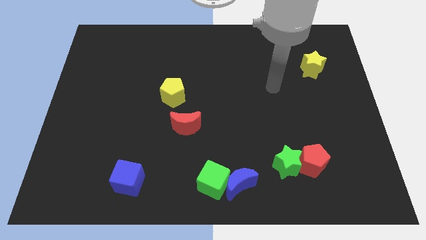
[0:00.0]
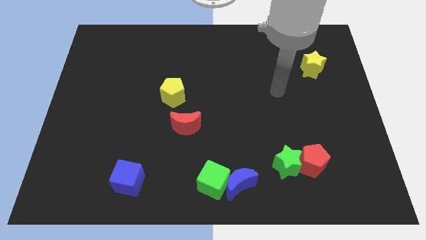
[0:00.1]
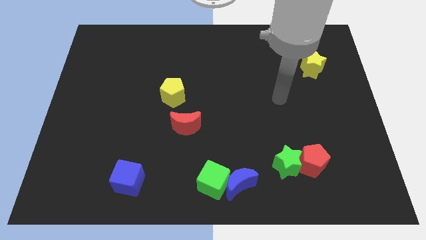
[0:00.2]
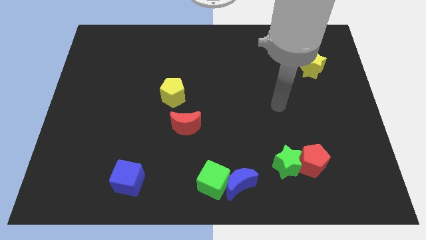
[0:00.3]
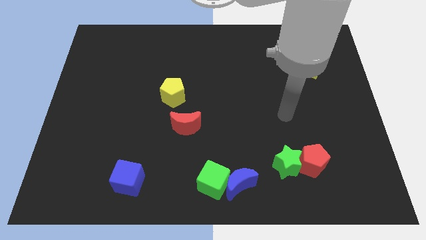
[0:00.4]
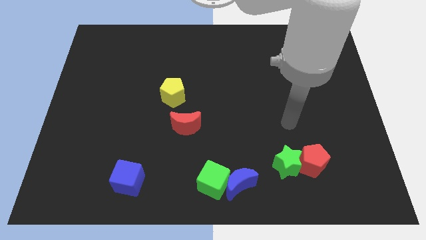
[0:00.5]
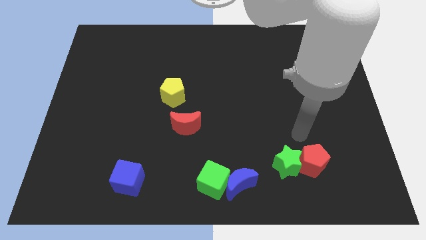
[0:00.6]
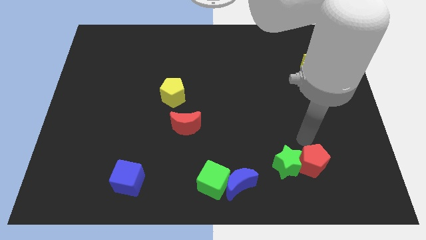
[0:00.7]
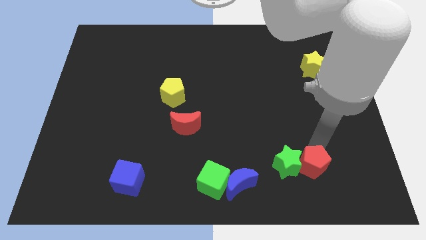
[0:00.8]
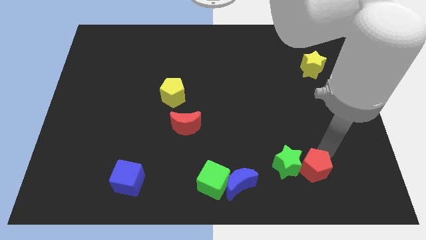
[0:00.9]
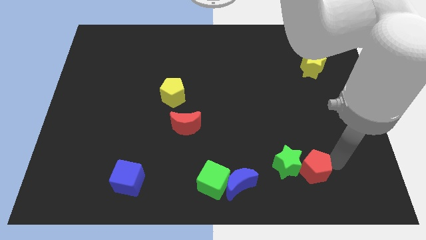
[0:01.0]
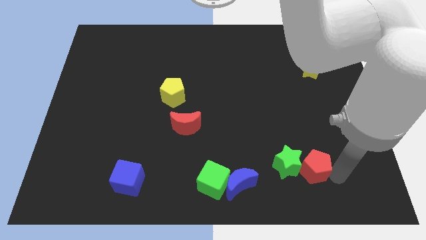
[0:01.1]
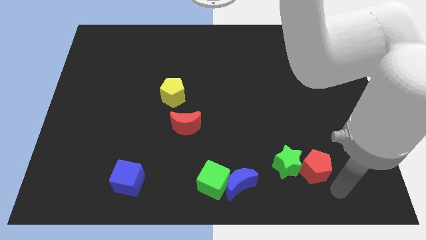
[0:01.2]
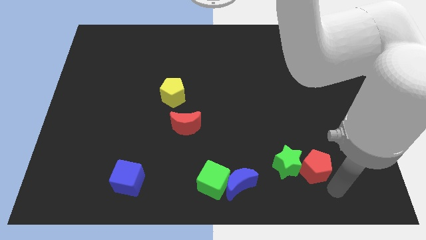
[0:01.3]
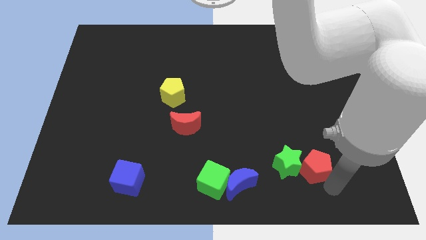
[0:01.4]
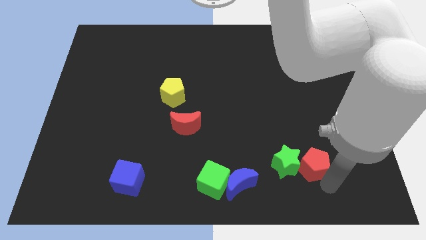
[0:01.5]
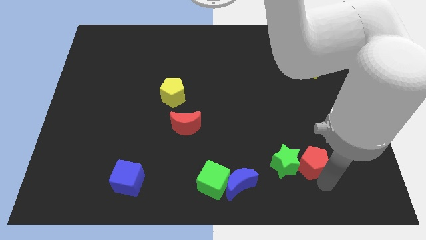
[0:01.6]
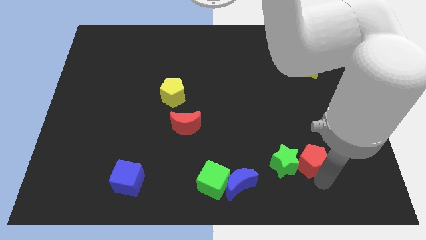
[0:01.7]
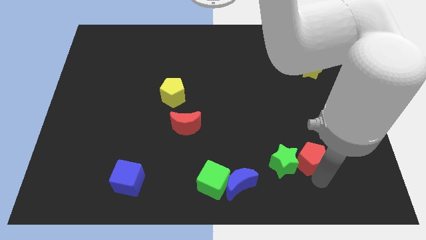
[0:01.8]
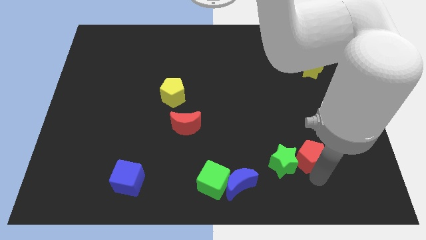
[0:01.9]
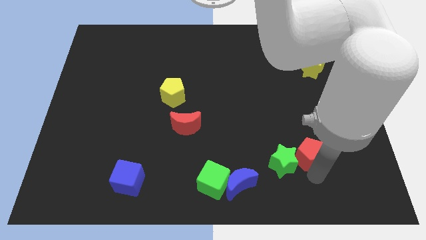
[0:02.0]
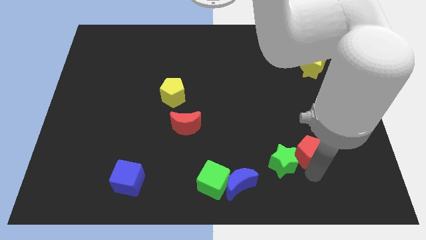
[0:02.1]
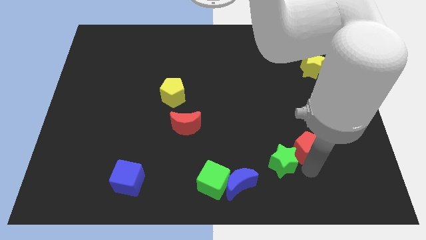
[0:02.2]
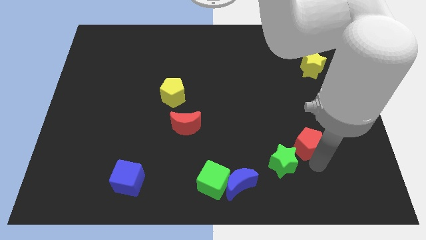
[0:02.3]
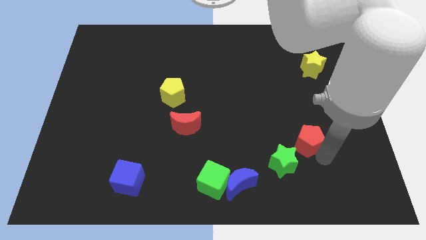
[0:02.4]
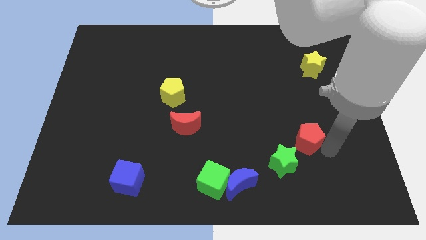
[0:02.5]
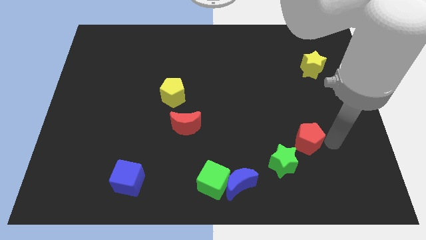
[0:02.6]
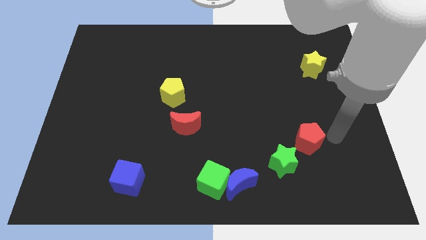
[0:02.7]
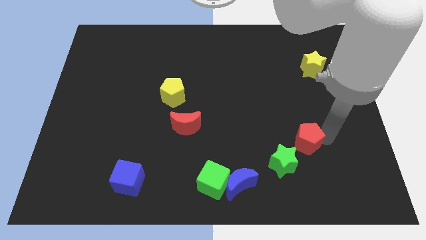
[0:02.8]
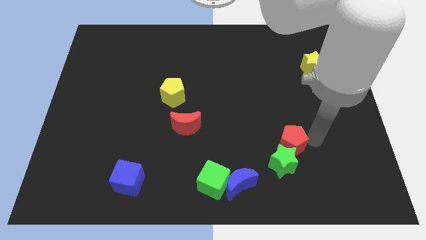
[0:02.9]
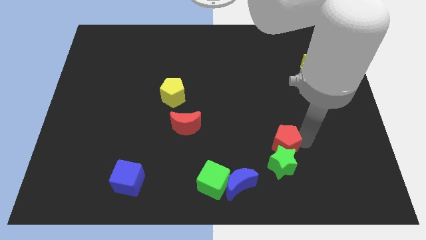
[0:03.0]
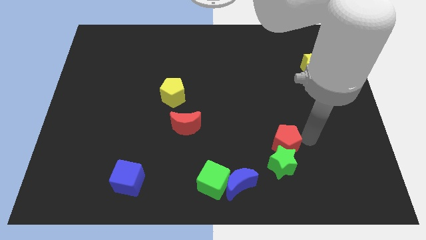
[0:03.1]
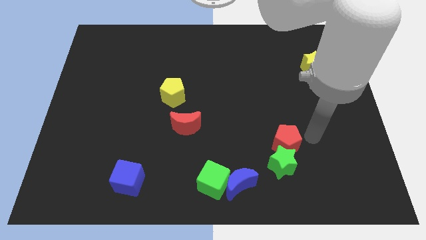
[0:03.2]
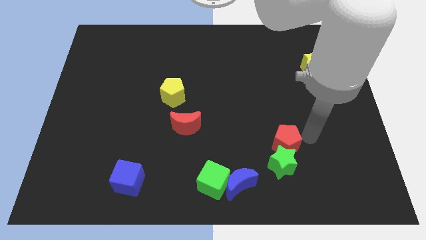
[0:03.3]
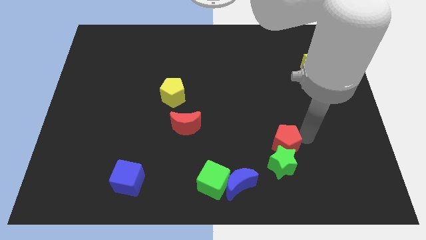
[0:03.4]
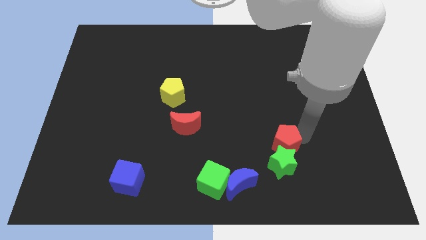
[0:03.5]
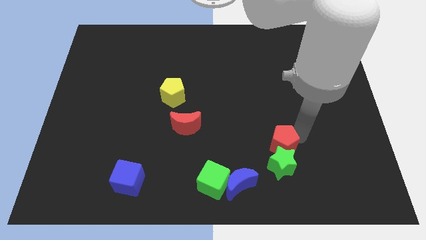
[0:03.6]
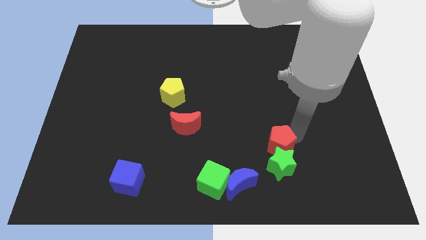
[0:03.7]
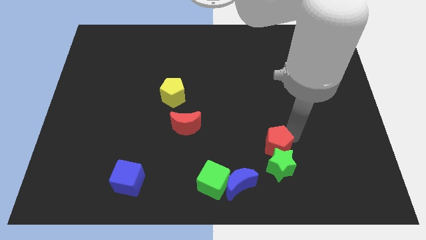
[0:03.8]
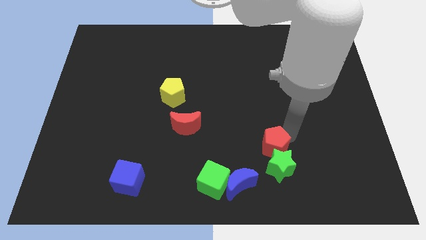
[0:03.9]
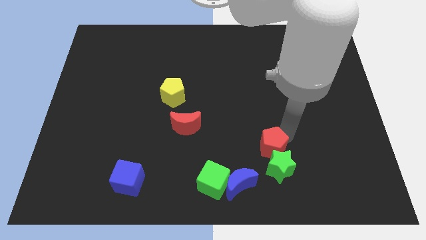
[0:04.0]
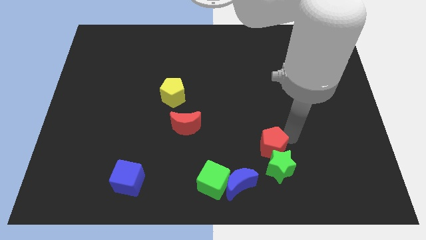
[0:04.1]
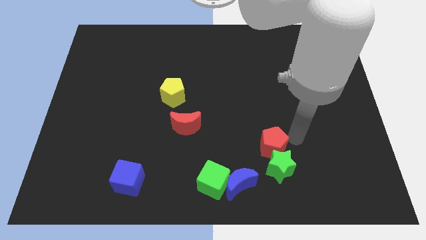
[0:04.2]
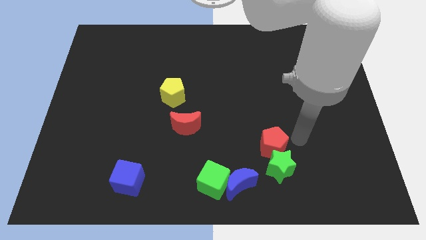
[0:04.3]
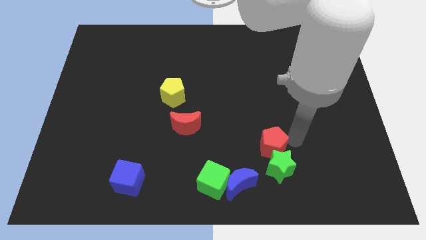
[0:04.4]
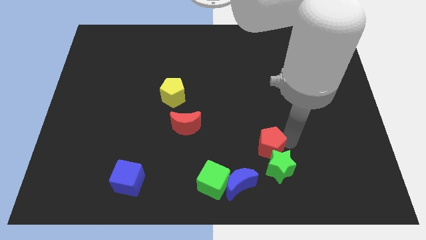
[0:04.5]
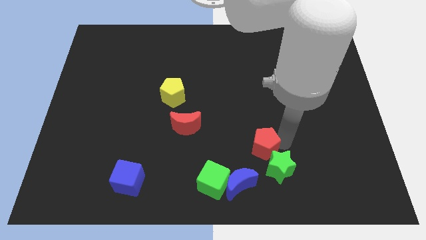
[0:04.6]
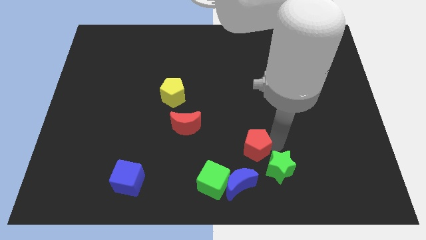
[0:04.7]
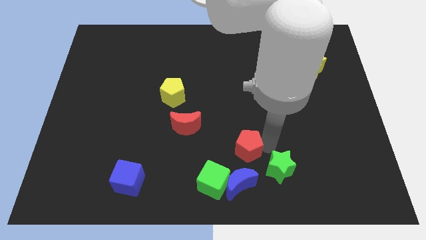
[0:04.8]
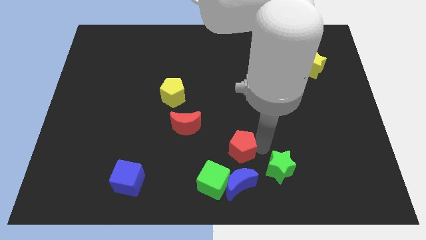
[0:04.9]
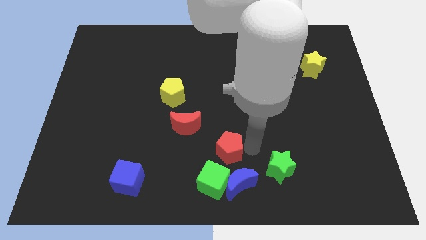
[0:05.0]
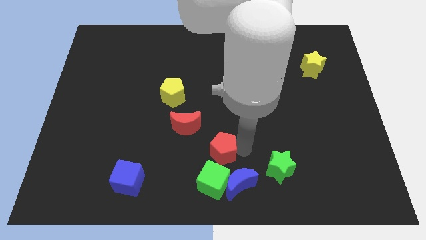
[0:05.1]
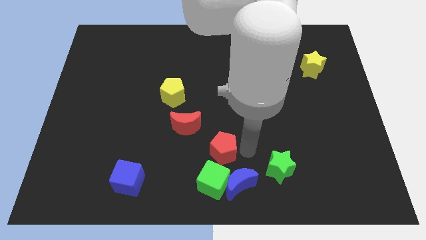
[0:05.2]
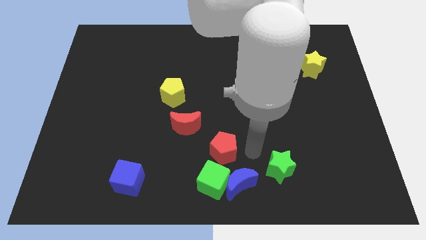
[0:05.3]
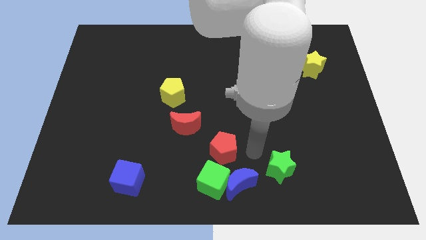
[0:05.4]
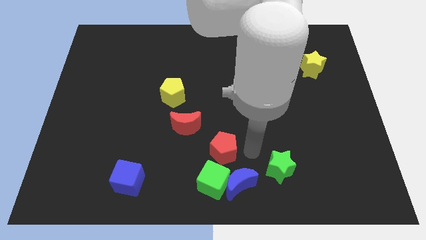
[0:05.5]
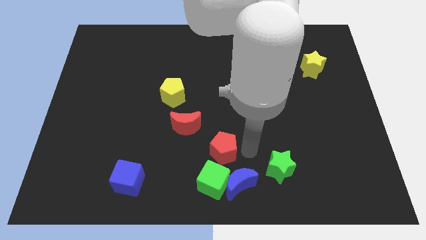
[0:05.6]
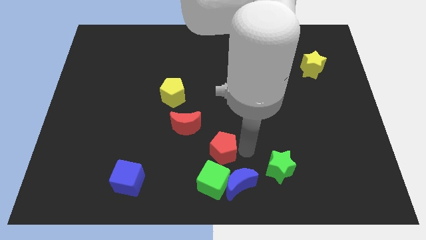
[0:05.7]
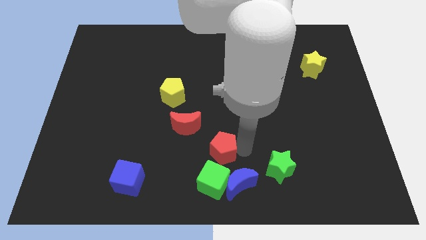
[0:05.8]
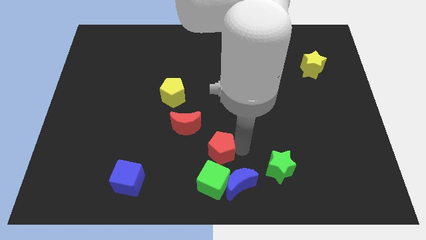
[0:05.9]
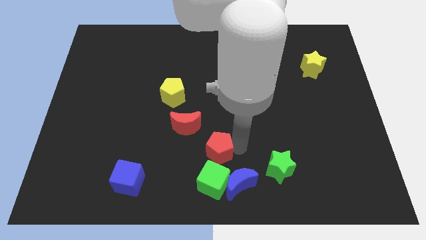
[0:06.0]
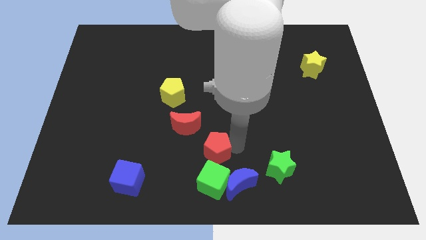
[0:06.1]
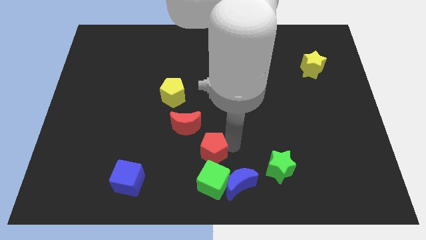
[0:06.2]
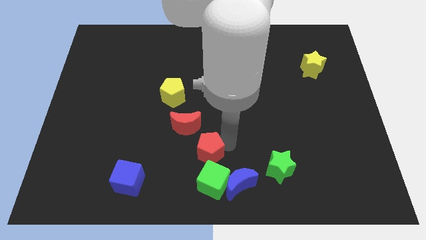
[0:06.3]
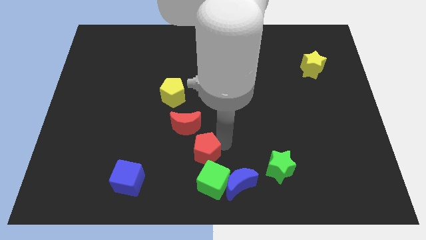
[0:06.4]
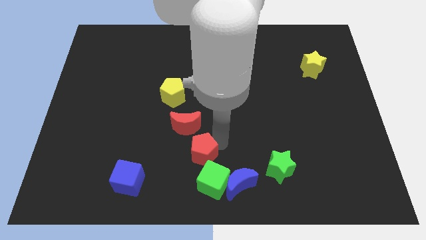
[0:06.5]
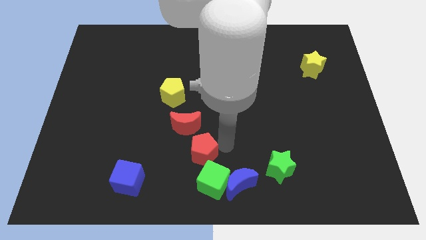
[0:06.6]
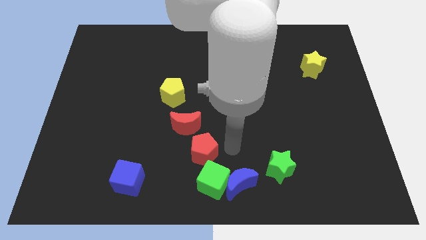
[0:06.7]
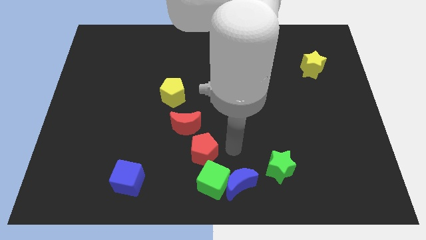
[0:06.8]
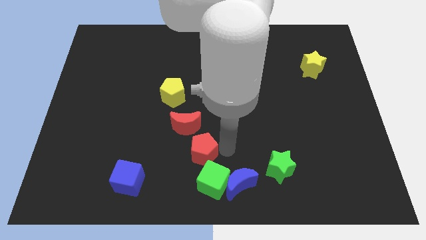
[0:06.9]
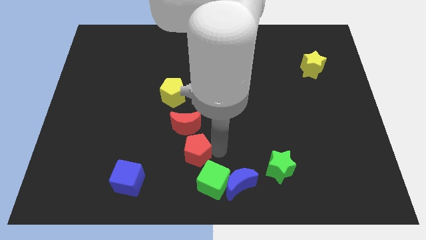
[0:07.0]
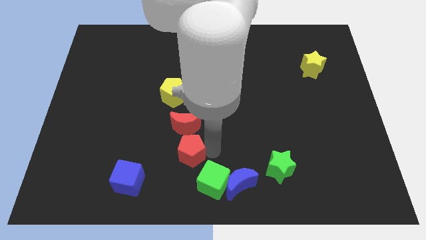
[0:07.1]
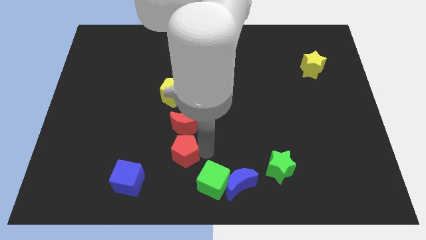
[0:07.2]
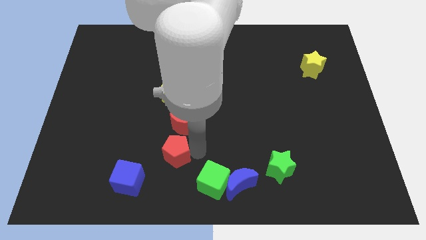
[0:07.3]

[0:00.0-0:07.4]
move the red pentagon to the top right of the blue cube
